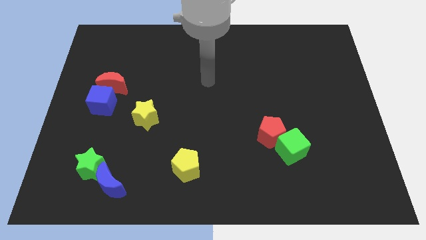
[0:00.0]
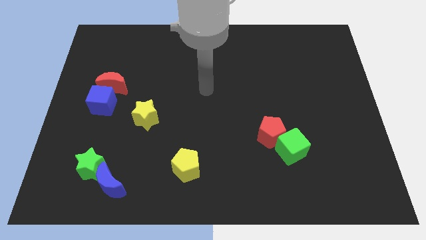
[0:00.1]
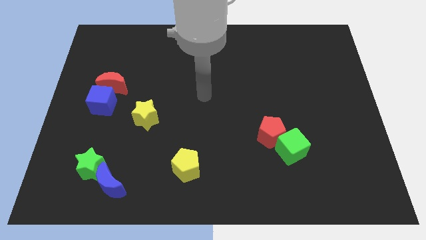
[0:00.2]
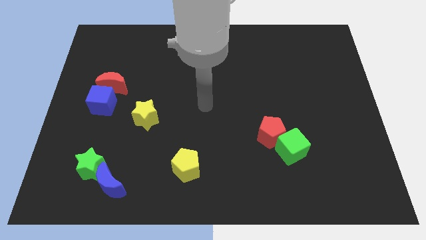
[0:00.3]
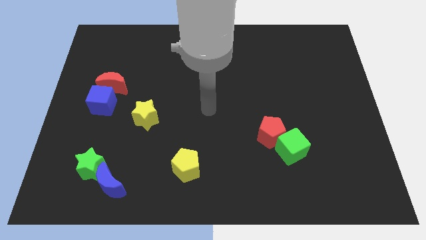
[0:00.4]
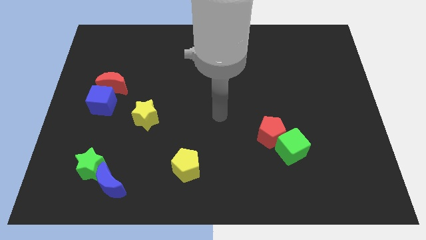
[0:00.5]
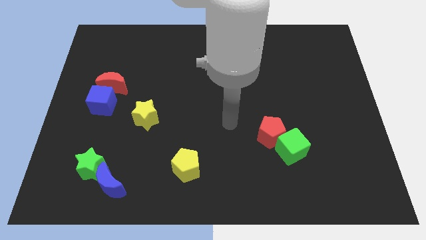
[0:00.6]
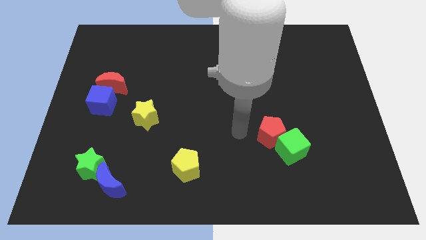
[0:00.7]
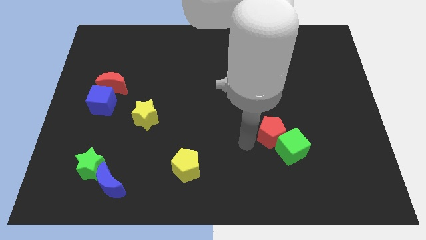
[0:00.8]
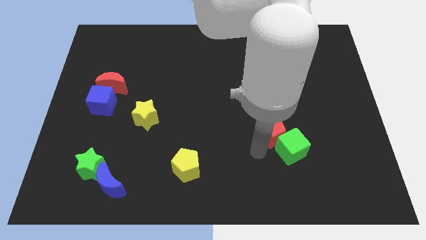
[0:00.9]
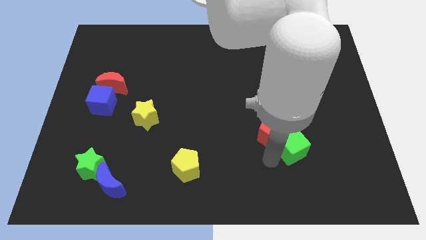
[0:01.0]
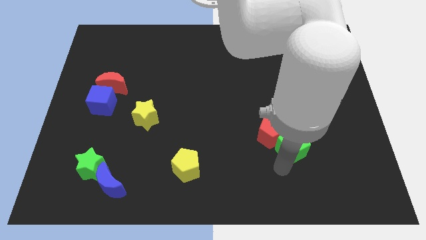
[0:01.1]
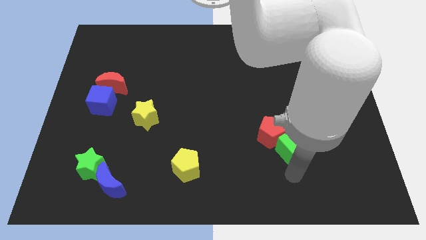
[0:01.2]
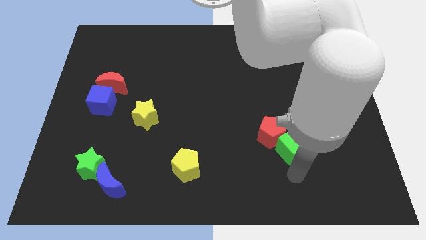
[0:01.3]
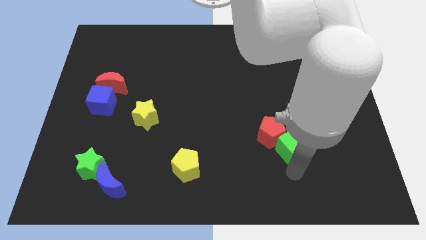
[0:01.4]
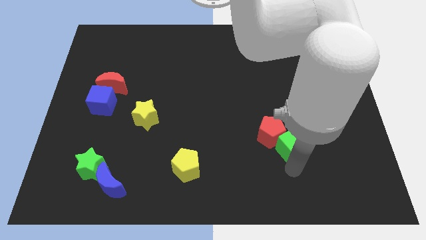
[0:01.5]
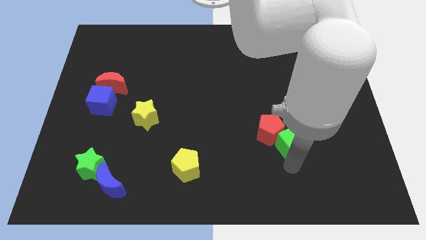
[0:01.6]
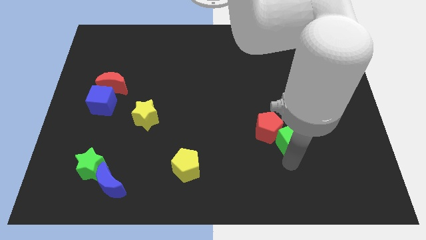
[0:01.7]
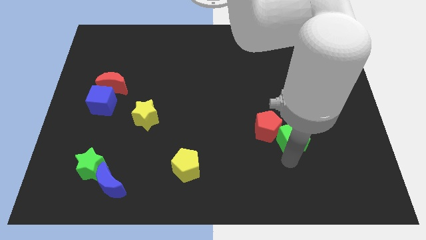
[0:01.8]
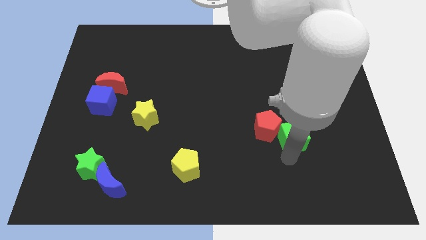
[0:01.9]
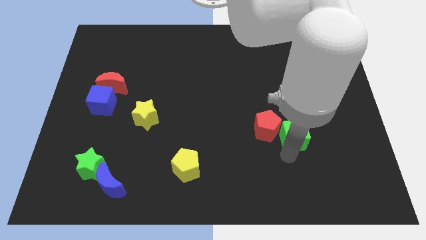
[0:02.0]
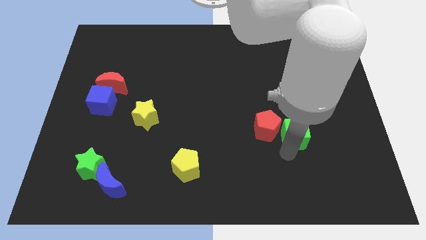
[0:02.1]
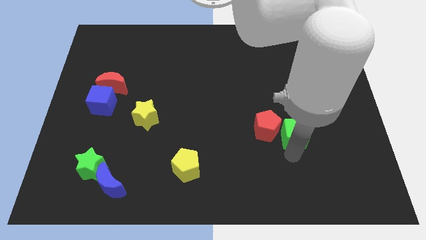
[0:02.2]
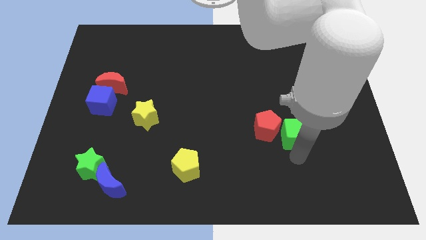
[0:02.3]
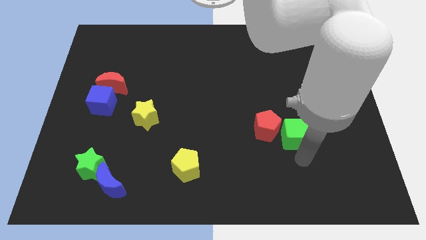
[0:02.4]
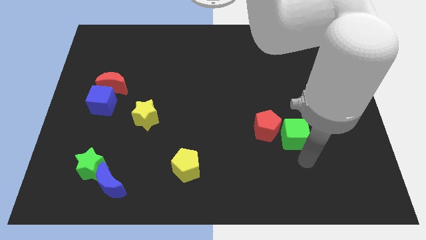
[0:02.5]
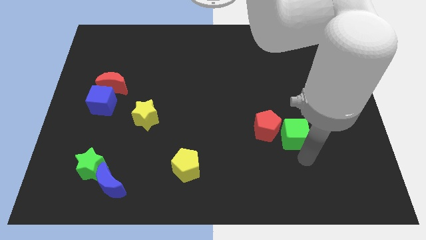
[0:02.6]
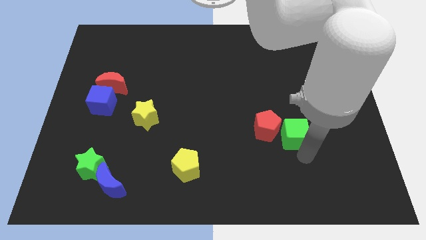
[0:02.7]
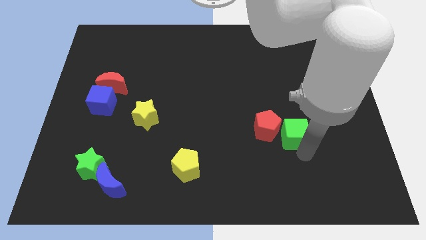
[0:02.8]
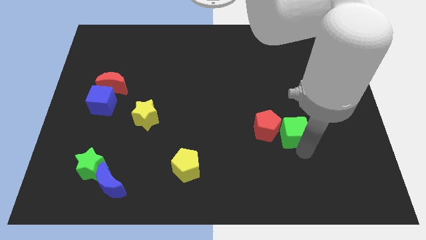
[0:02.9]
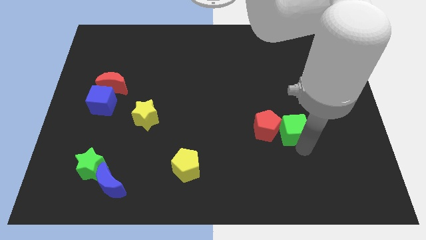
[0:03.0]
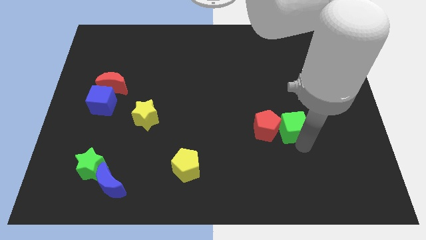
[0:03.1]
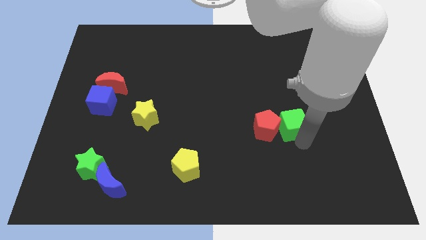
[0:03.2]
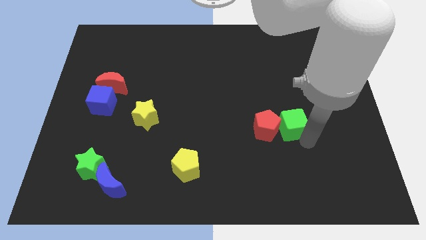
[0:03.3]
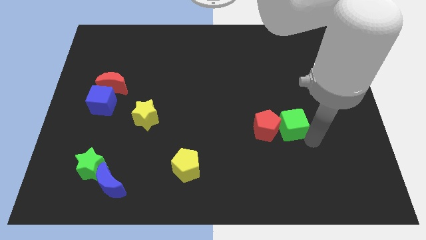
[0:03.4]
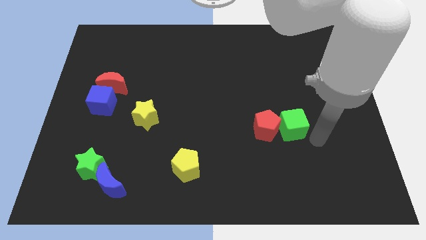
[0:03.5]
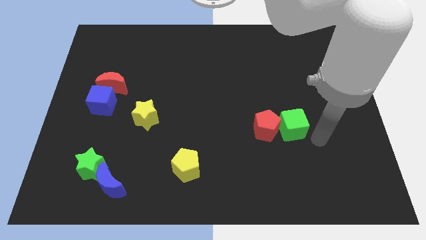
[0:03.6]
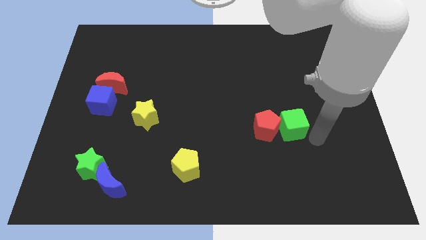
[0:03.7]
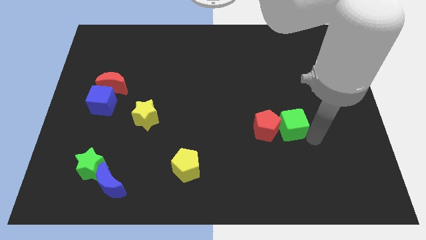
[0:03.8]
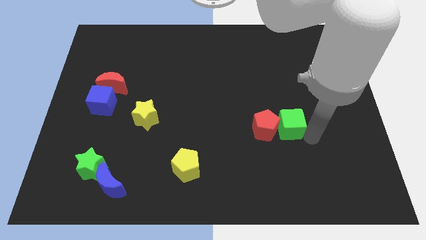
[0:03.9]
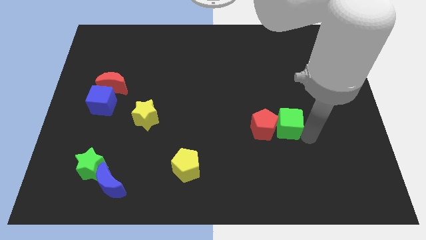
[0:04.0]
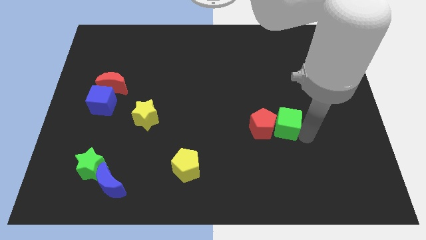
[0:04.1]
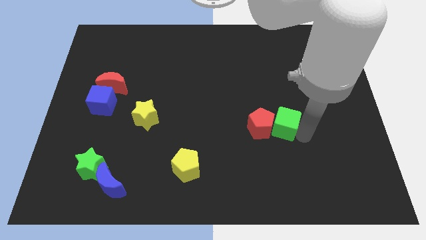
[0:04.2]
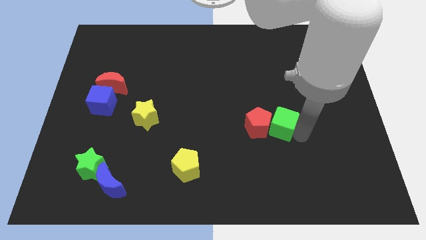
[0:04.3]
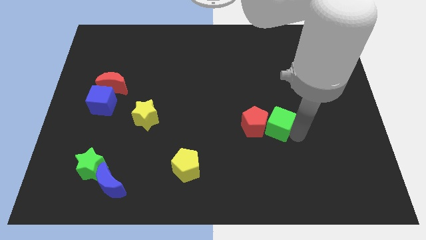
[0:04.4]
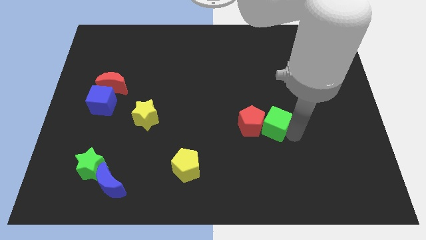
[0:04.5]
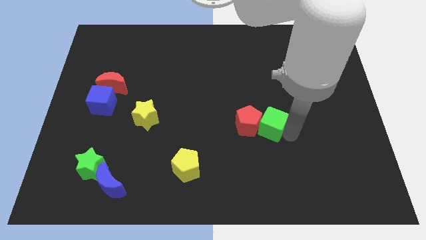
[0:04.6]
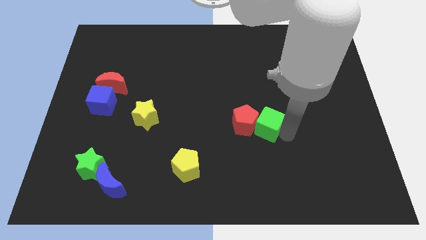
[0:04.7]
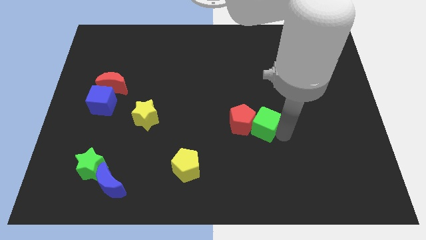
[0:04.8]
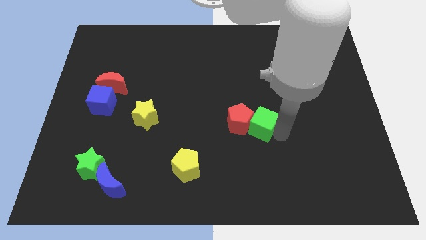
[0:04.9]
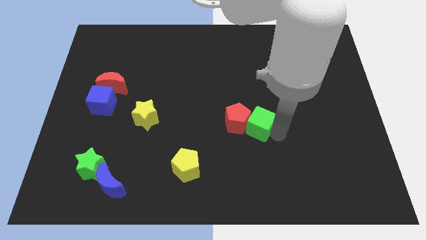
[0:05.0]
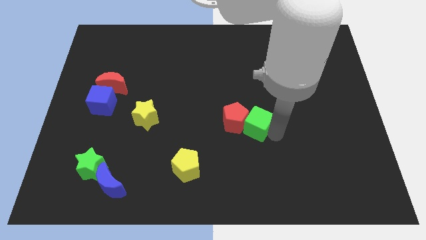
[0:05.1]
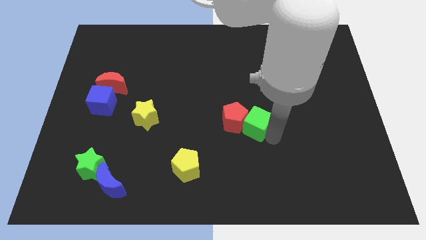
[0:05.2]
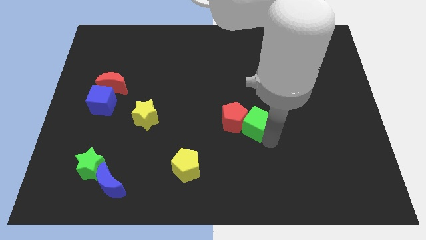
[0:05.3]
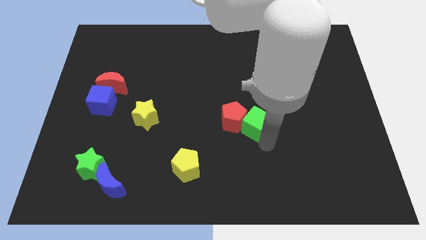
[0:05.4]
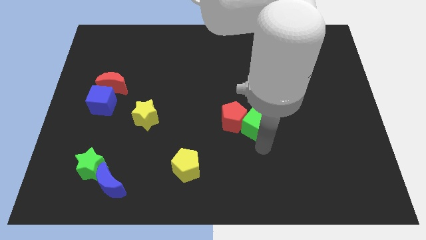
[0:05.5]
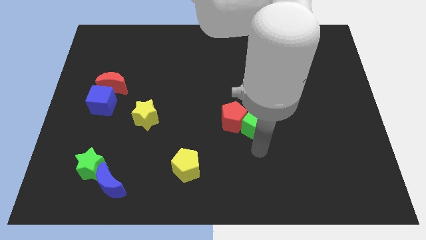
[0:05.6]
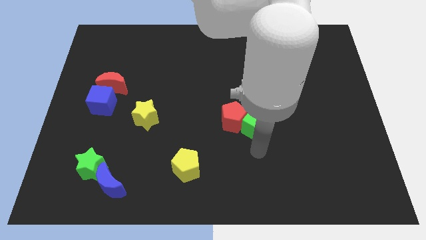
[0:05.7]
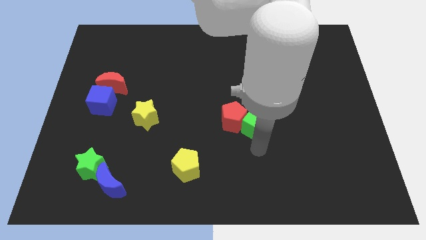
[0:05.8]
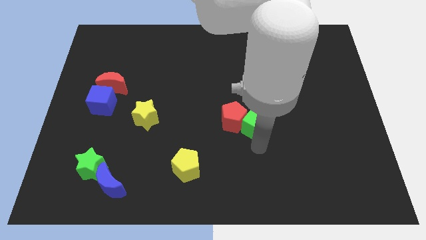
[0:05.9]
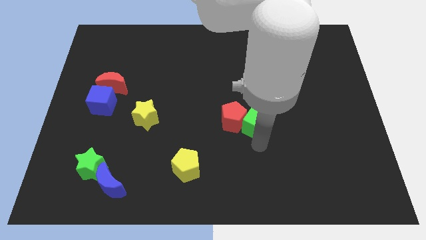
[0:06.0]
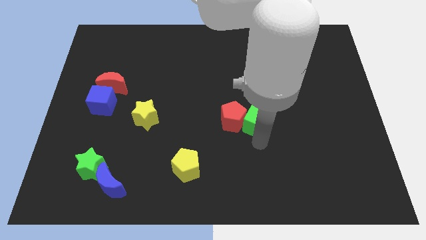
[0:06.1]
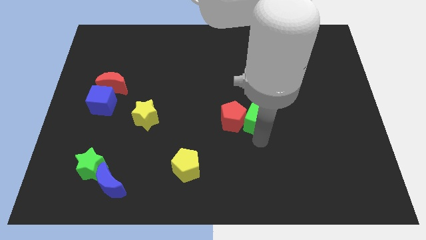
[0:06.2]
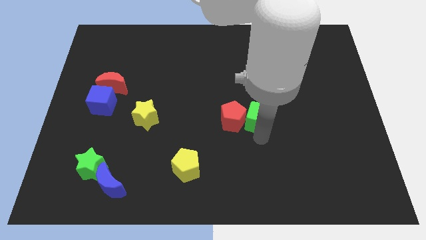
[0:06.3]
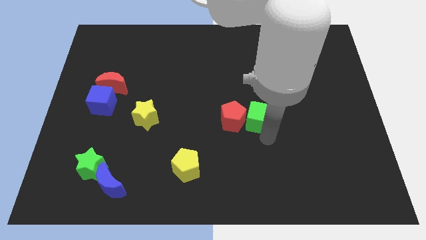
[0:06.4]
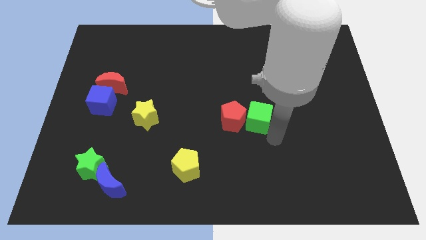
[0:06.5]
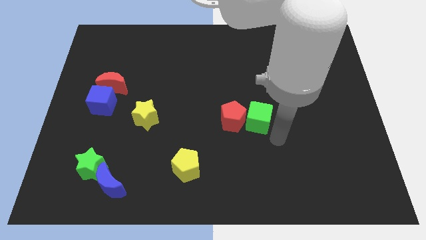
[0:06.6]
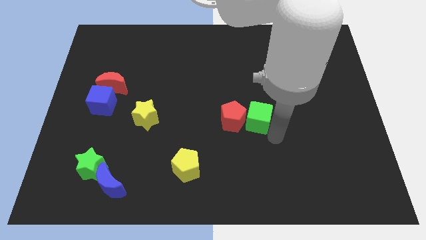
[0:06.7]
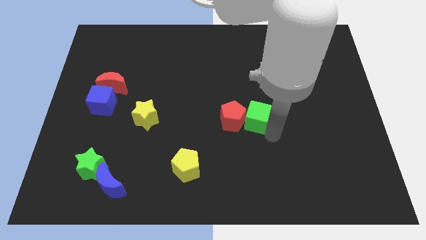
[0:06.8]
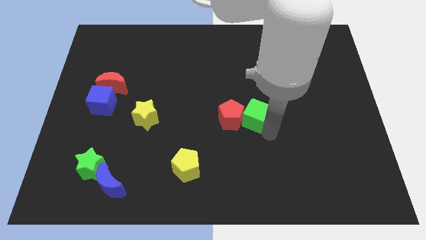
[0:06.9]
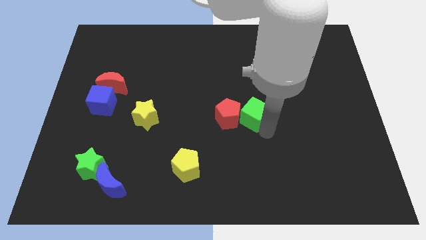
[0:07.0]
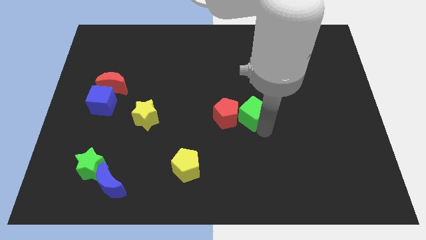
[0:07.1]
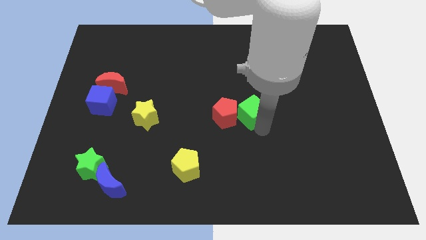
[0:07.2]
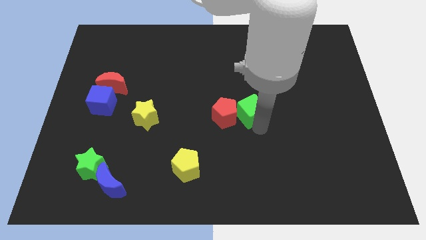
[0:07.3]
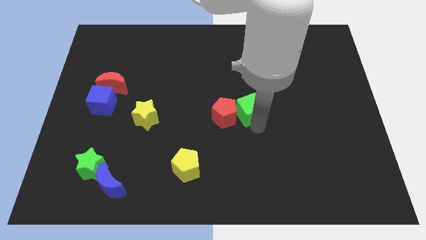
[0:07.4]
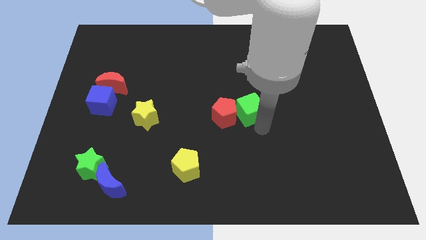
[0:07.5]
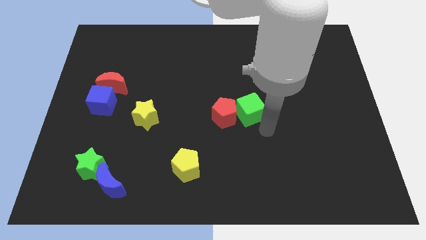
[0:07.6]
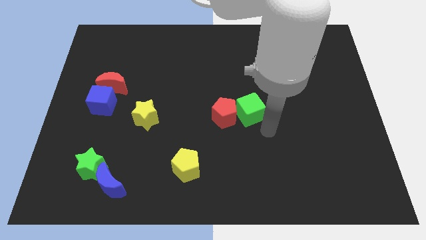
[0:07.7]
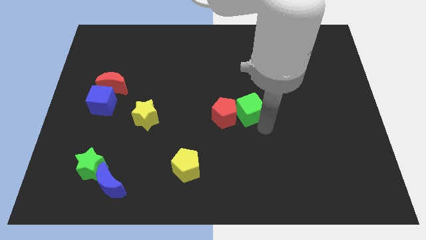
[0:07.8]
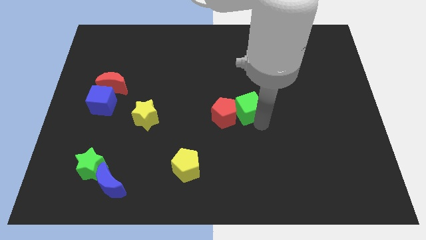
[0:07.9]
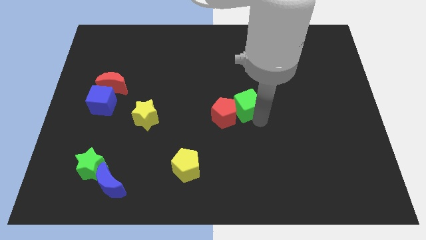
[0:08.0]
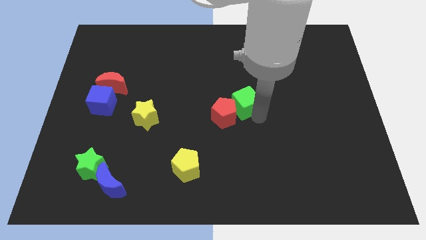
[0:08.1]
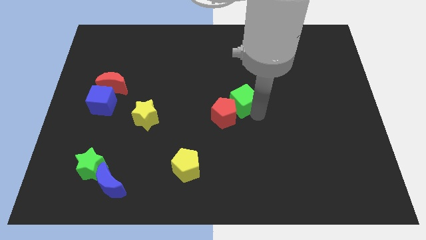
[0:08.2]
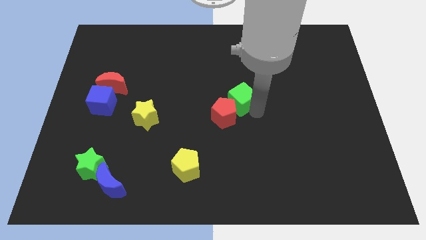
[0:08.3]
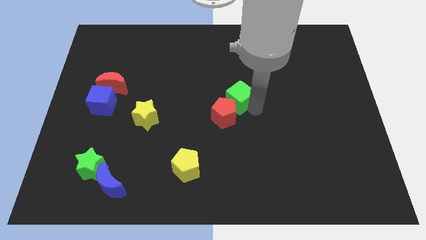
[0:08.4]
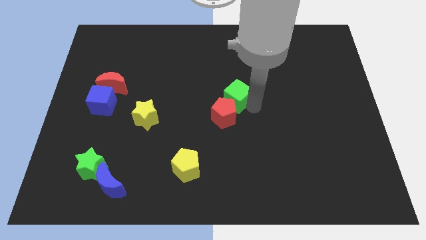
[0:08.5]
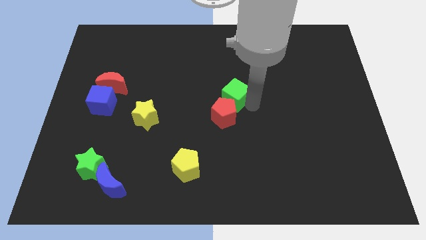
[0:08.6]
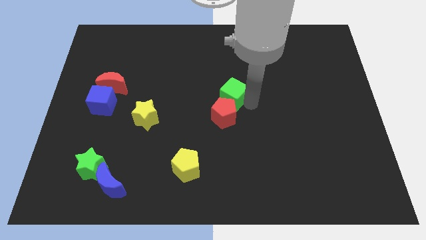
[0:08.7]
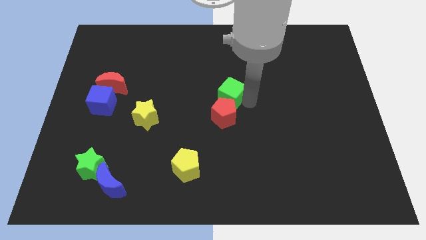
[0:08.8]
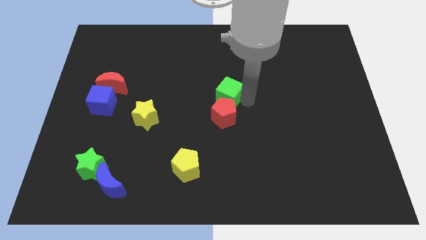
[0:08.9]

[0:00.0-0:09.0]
push the green cube diagonally upwards and to the left
